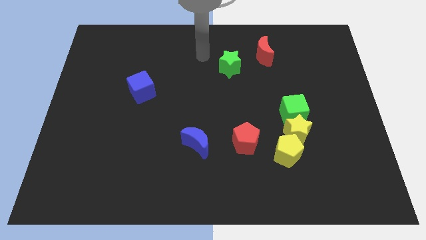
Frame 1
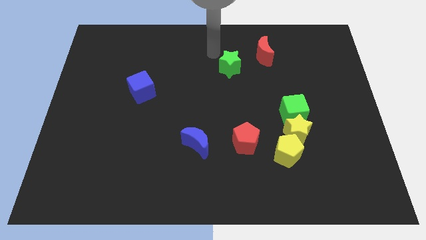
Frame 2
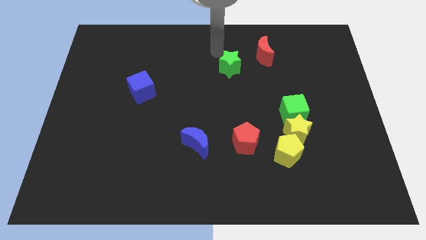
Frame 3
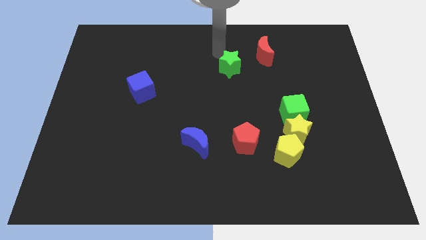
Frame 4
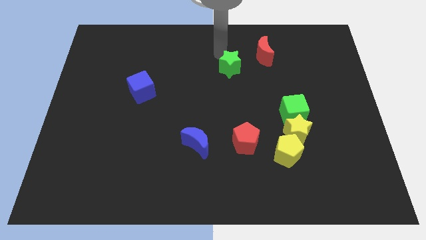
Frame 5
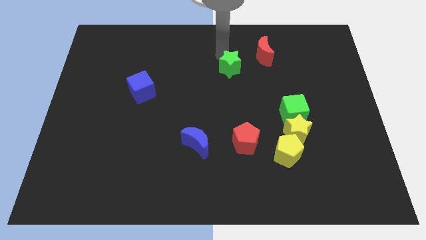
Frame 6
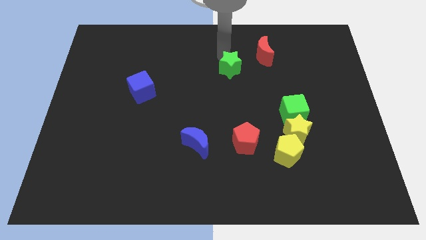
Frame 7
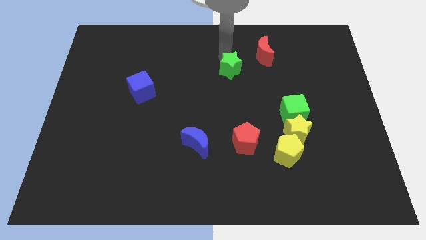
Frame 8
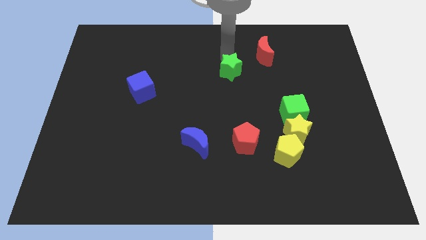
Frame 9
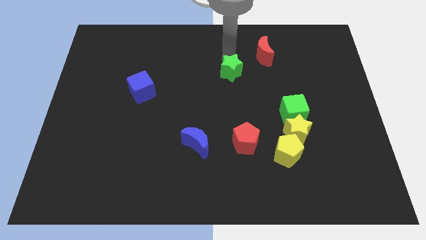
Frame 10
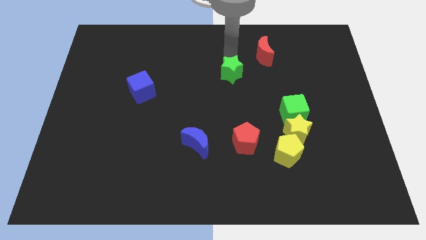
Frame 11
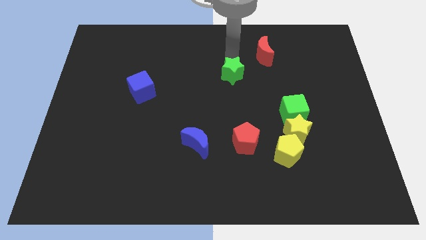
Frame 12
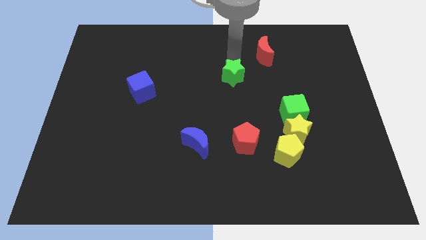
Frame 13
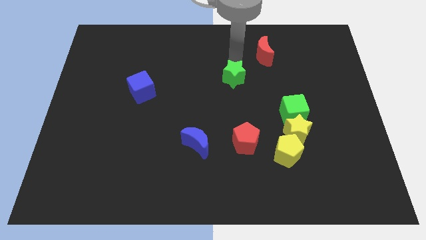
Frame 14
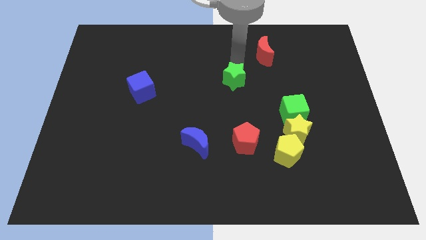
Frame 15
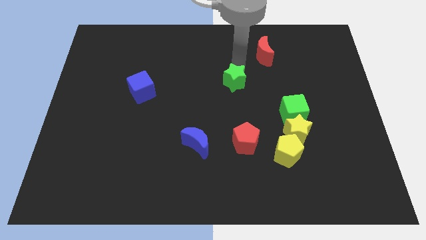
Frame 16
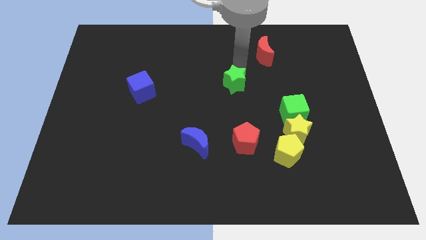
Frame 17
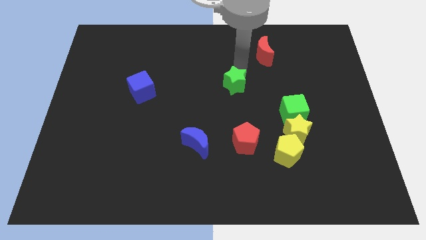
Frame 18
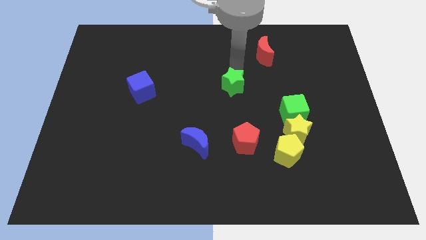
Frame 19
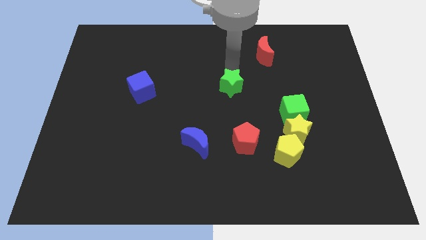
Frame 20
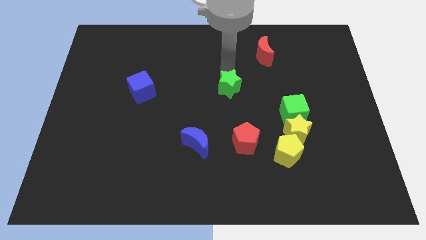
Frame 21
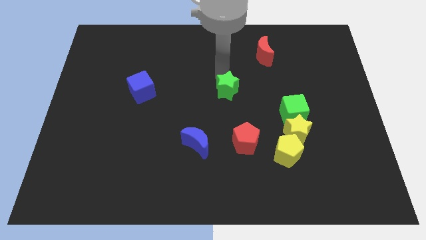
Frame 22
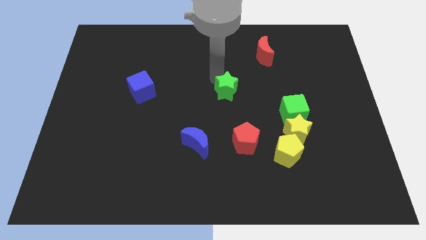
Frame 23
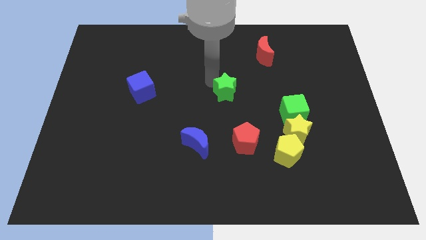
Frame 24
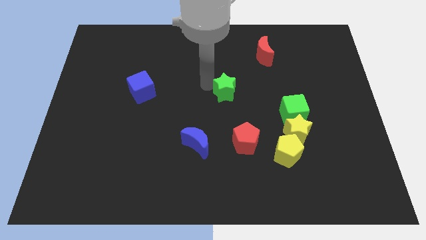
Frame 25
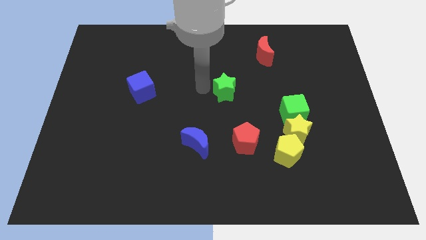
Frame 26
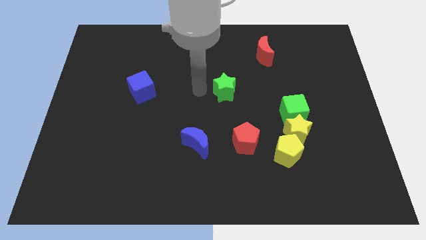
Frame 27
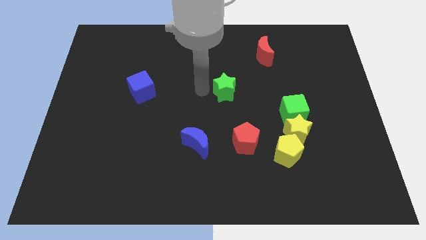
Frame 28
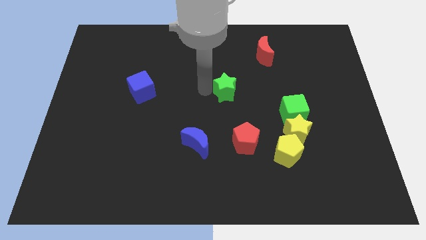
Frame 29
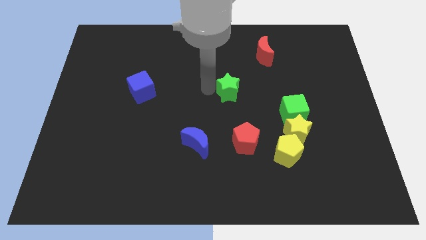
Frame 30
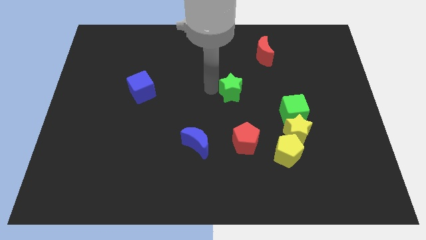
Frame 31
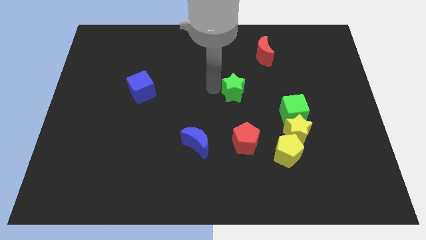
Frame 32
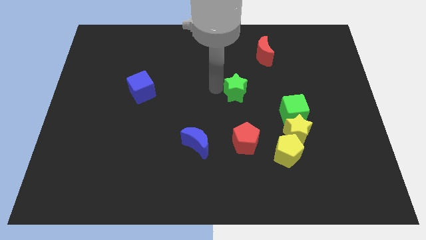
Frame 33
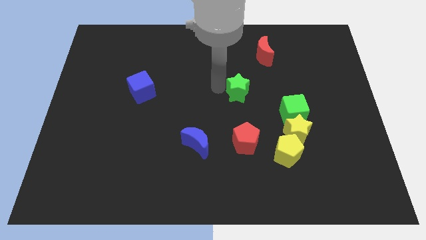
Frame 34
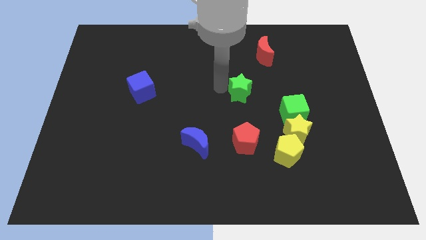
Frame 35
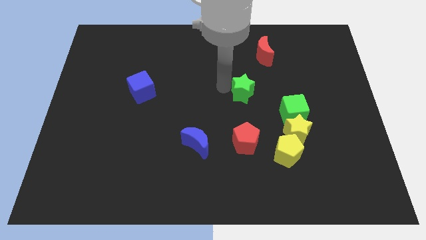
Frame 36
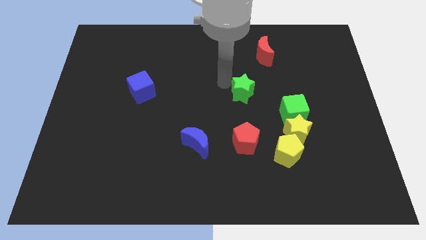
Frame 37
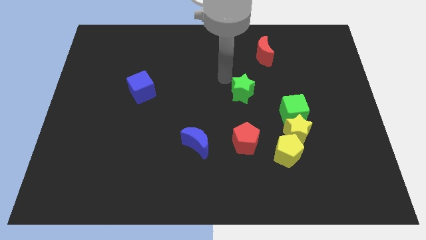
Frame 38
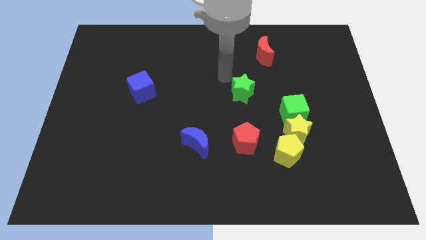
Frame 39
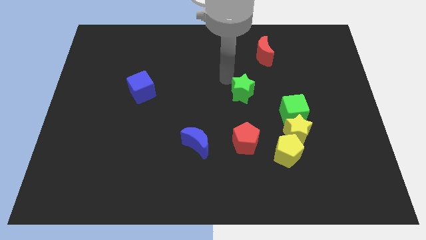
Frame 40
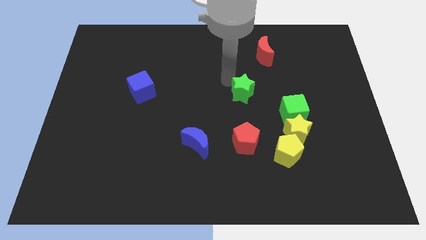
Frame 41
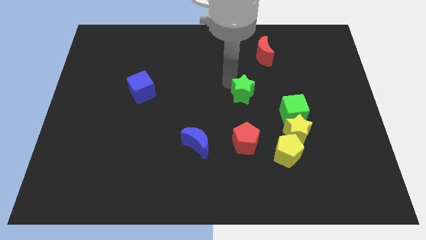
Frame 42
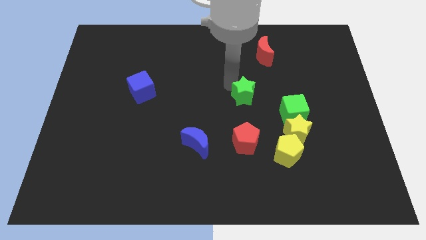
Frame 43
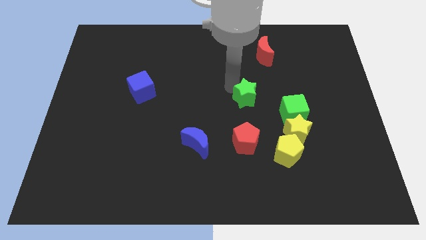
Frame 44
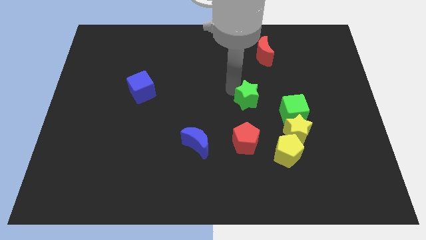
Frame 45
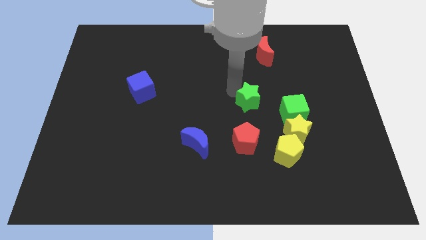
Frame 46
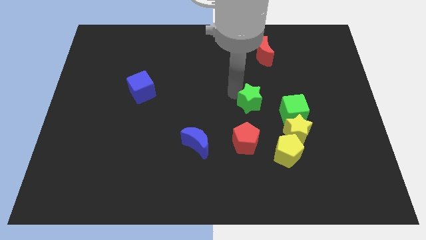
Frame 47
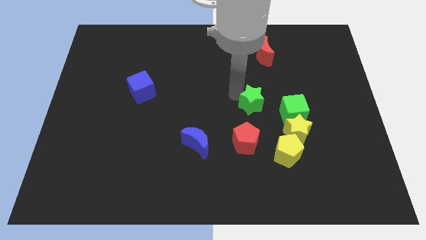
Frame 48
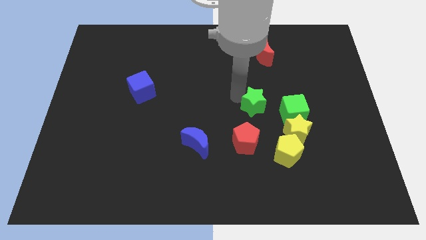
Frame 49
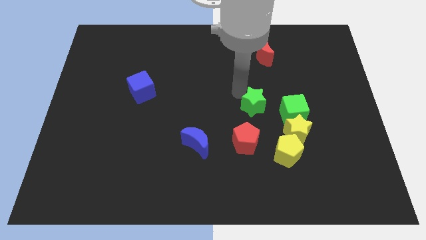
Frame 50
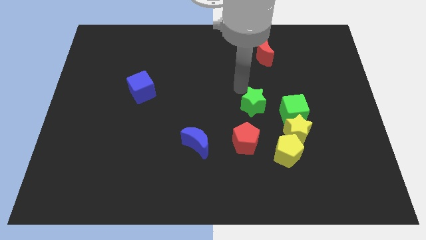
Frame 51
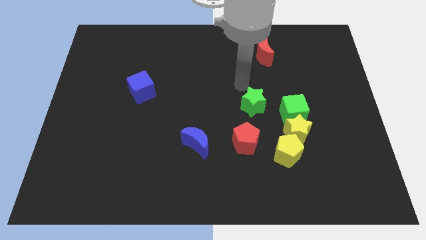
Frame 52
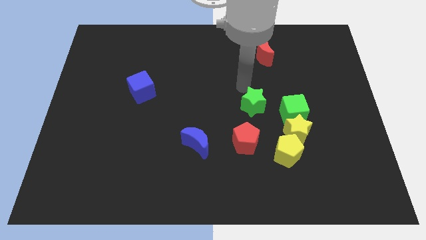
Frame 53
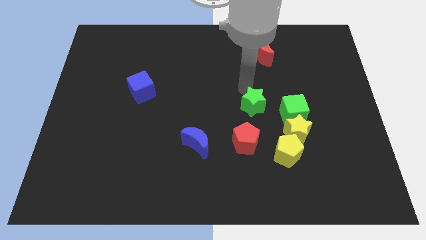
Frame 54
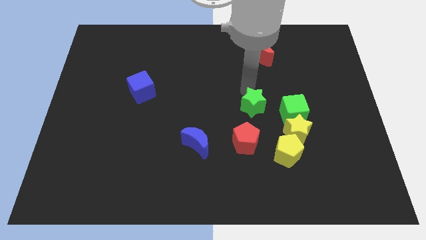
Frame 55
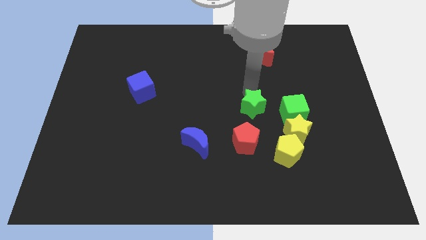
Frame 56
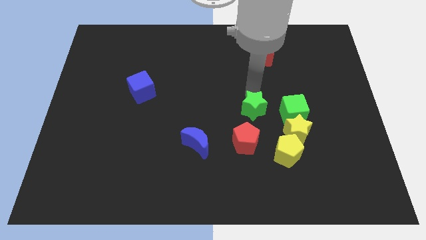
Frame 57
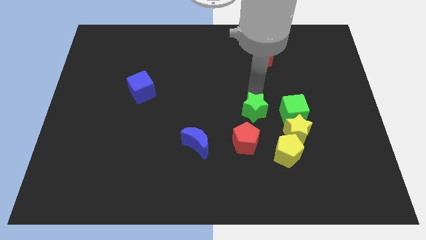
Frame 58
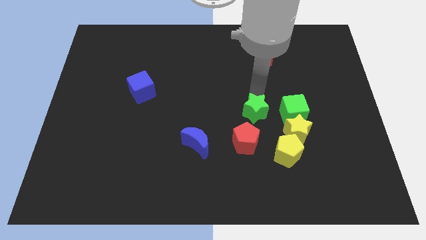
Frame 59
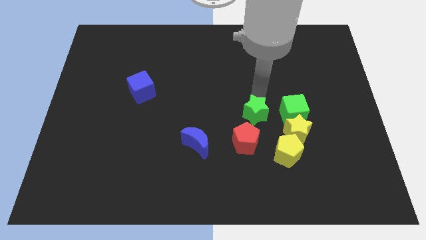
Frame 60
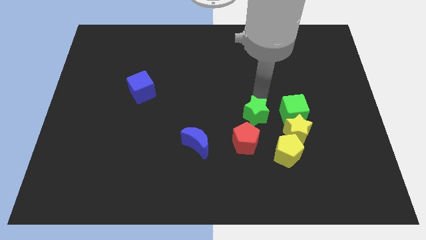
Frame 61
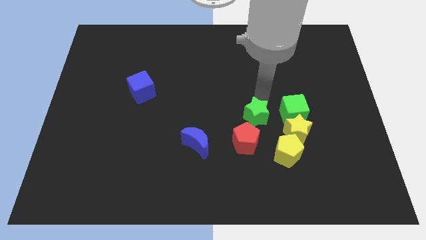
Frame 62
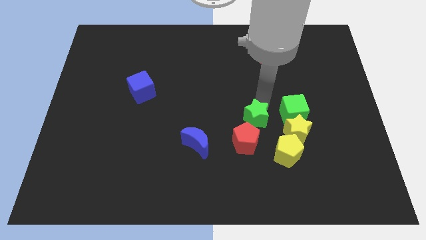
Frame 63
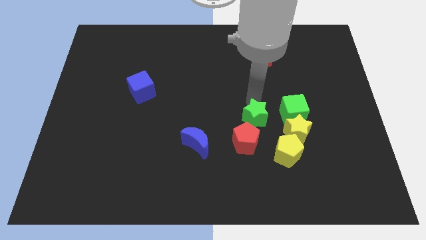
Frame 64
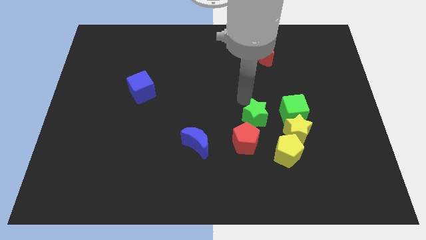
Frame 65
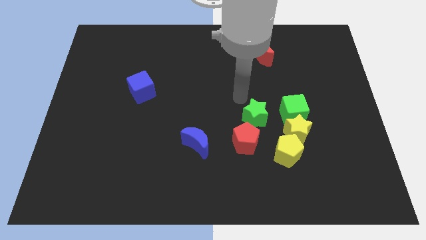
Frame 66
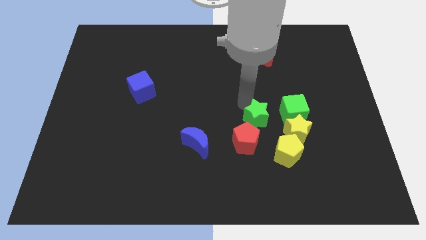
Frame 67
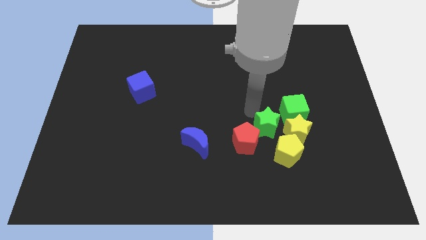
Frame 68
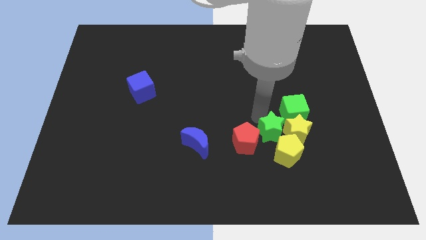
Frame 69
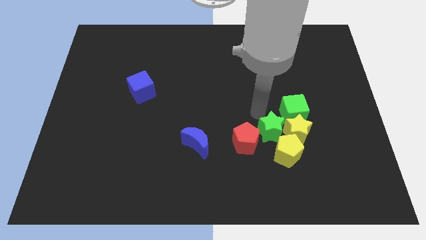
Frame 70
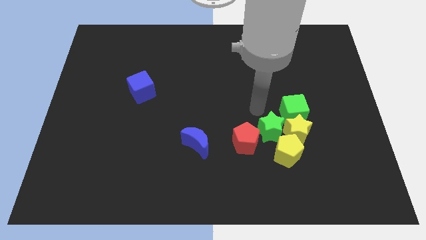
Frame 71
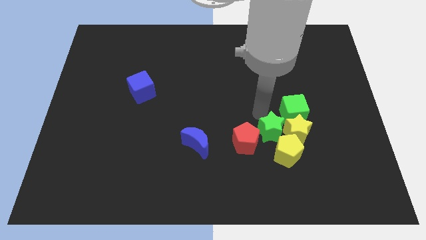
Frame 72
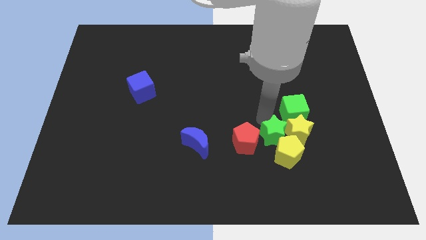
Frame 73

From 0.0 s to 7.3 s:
move the green star towards the yellow pentagon
